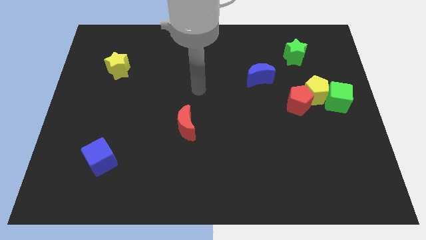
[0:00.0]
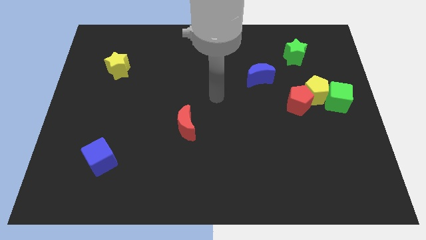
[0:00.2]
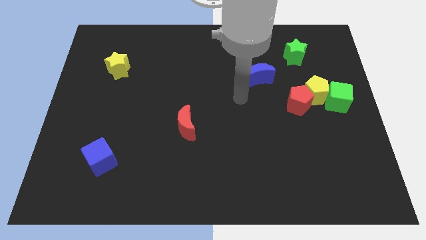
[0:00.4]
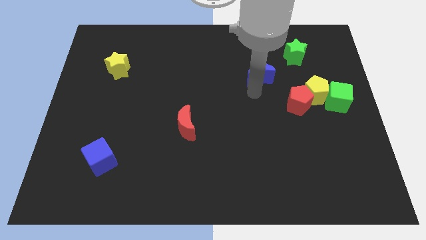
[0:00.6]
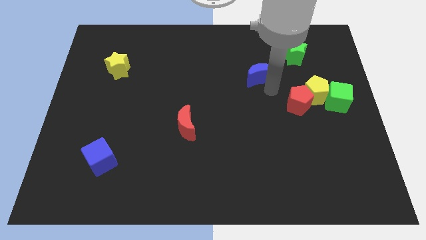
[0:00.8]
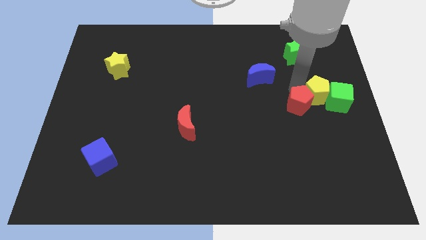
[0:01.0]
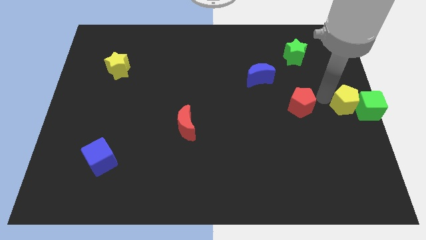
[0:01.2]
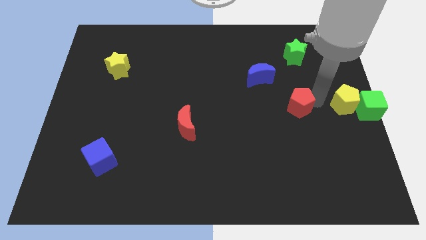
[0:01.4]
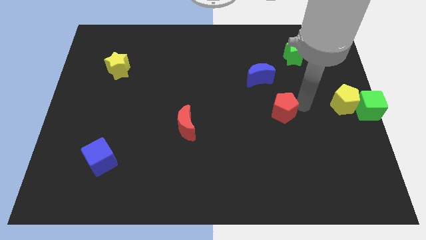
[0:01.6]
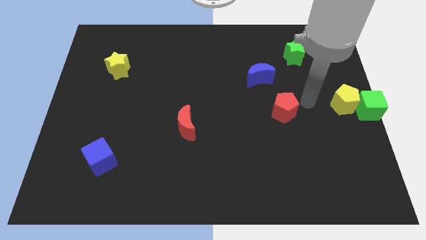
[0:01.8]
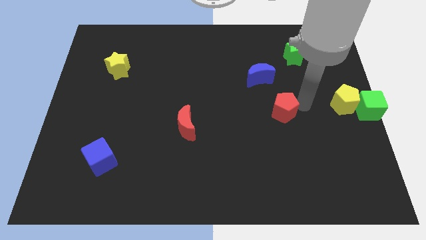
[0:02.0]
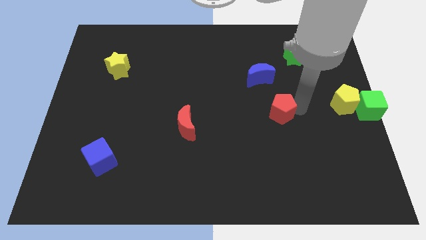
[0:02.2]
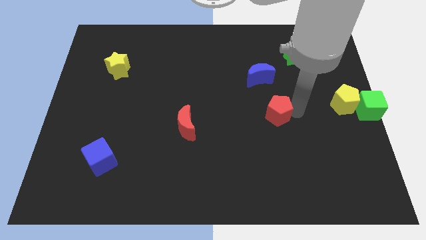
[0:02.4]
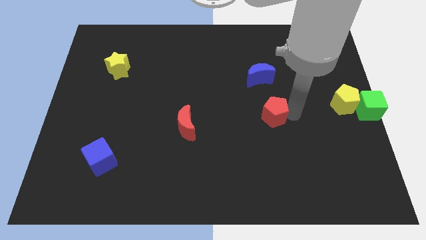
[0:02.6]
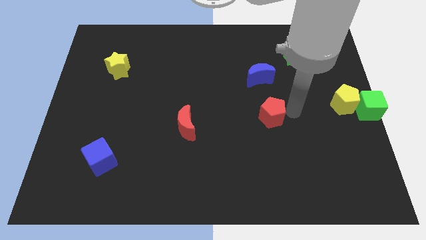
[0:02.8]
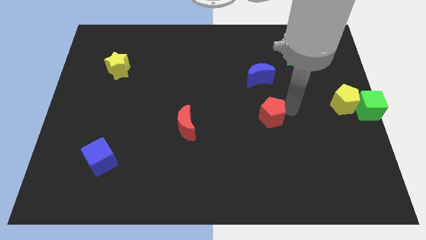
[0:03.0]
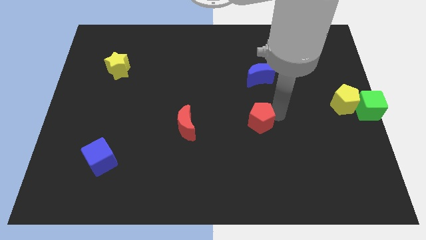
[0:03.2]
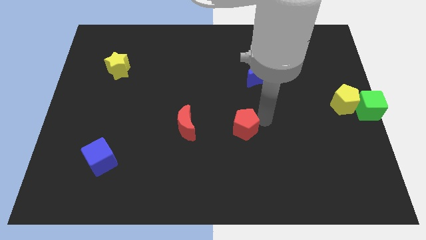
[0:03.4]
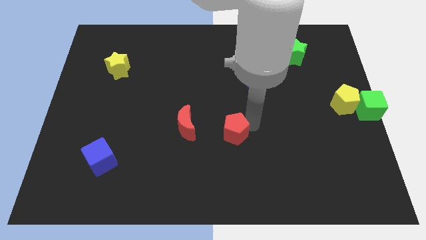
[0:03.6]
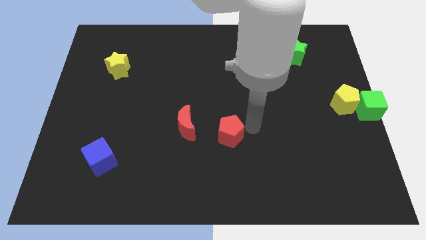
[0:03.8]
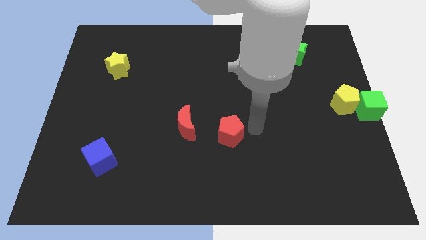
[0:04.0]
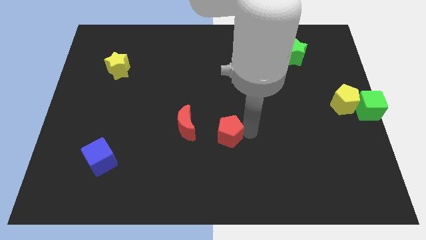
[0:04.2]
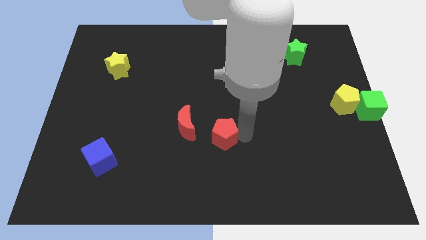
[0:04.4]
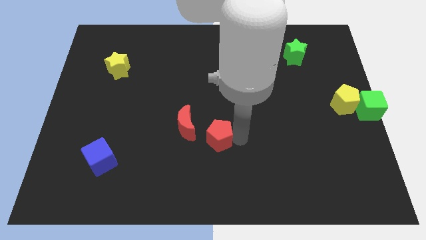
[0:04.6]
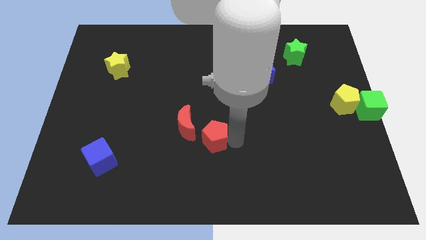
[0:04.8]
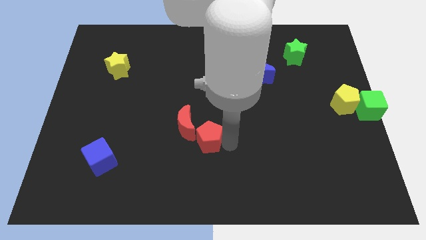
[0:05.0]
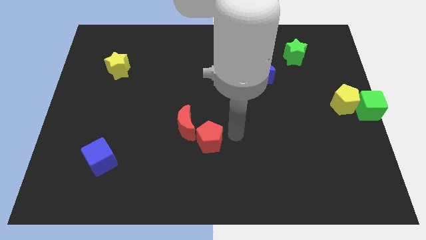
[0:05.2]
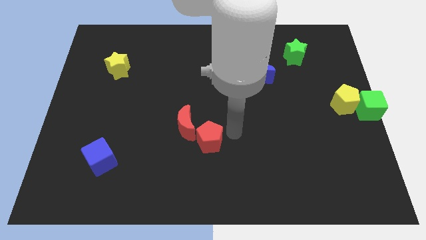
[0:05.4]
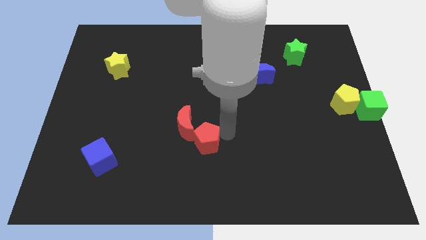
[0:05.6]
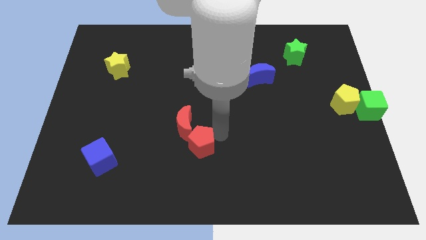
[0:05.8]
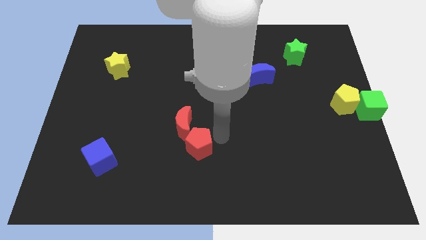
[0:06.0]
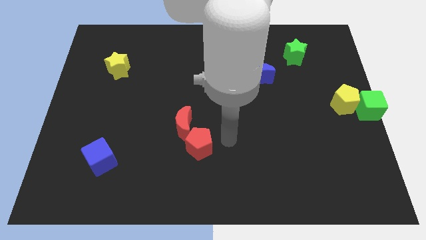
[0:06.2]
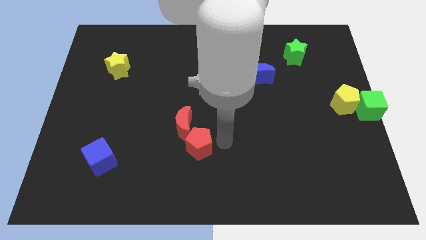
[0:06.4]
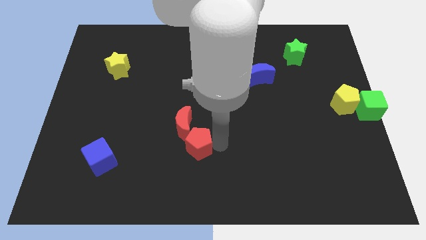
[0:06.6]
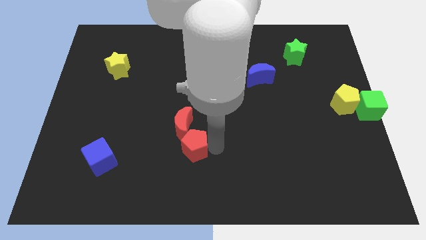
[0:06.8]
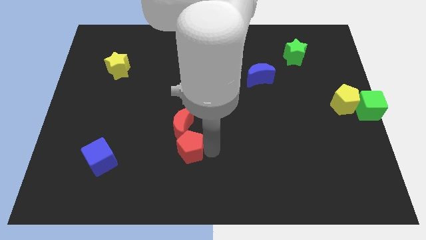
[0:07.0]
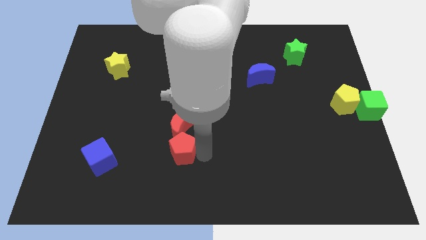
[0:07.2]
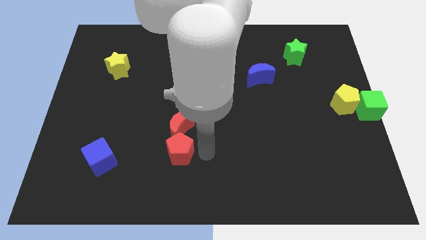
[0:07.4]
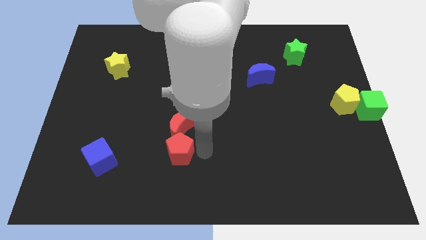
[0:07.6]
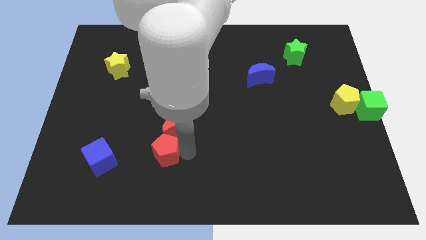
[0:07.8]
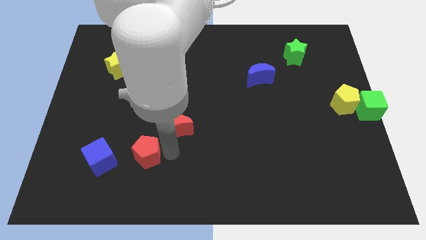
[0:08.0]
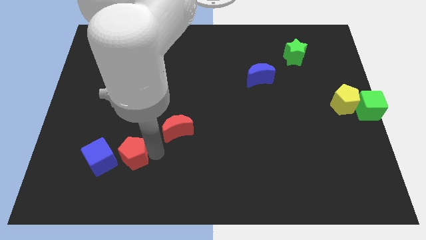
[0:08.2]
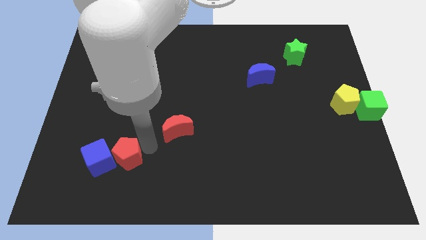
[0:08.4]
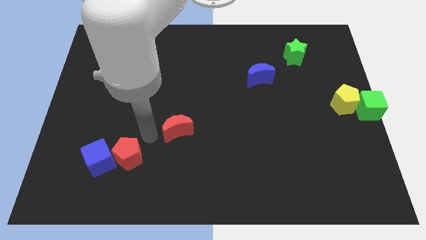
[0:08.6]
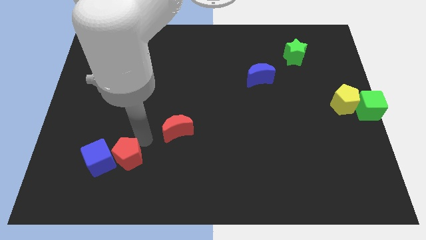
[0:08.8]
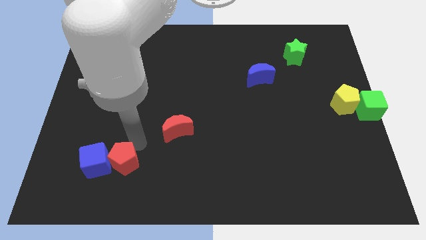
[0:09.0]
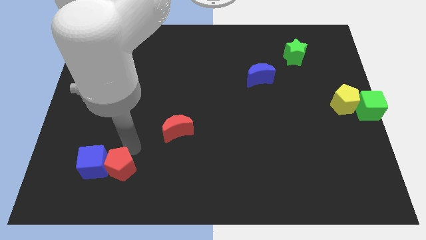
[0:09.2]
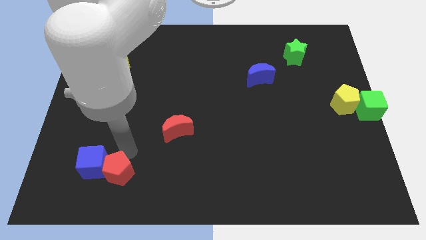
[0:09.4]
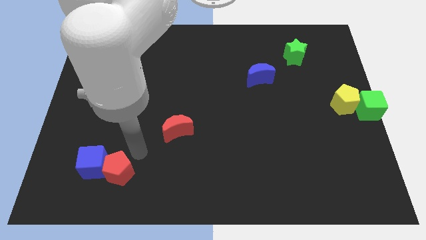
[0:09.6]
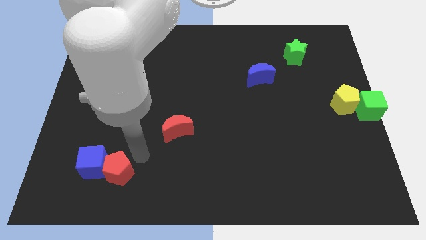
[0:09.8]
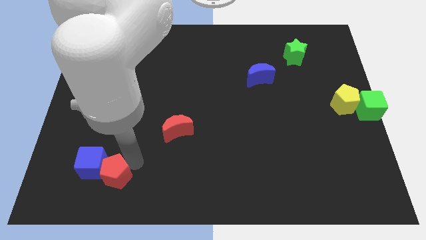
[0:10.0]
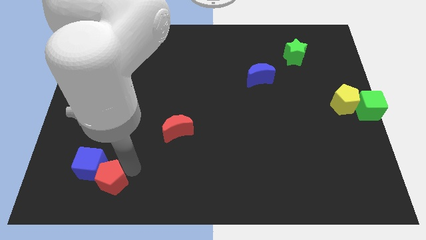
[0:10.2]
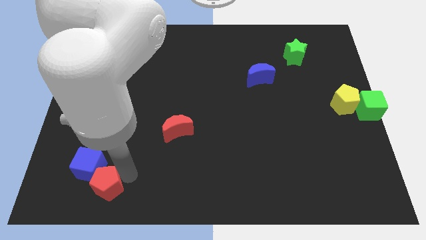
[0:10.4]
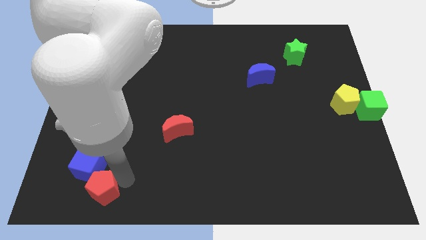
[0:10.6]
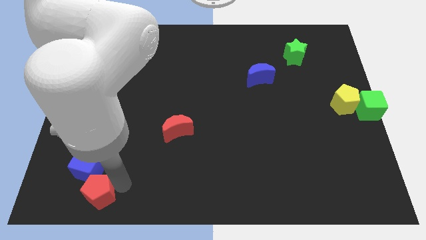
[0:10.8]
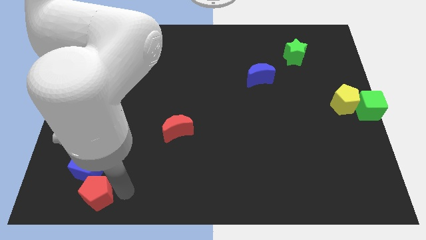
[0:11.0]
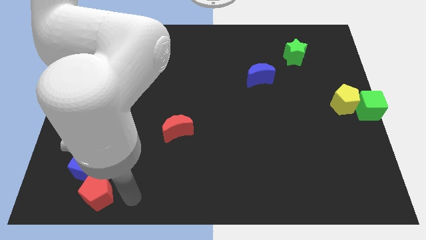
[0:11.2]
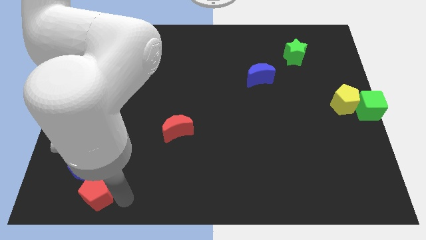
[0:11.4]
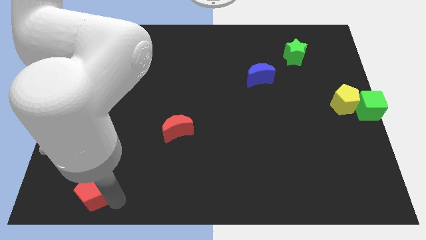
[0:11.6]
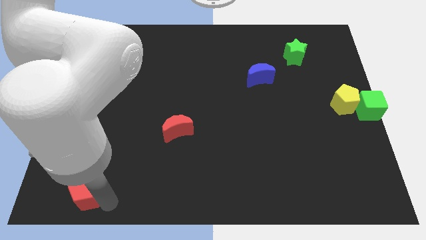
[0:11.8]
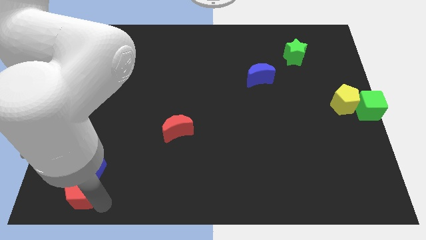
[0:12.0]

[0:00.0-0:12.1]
put the red pentagon to the bottom left corner
